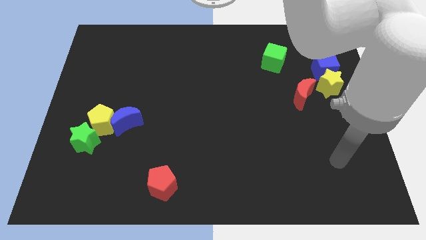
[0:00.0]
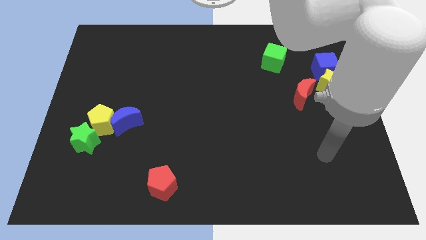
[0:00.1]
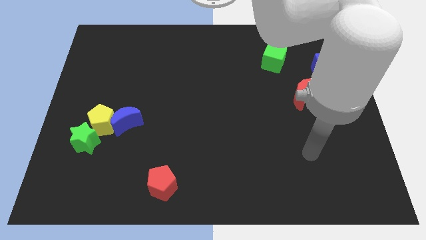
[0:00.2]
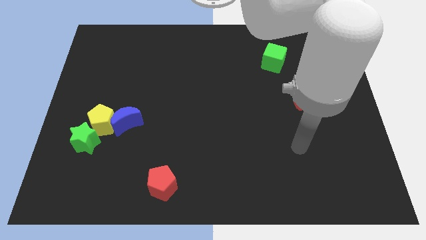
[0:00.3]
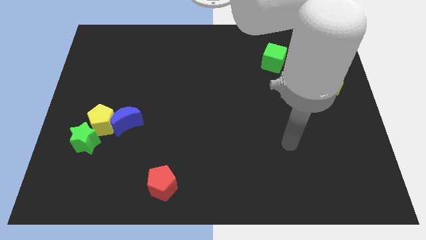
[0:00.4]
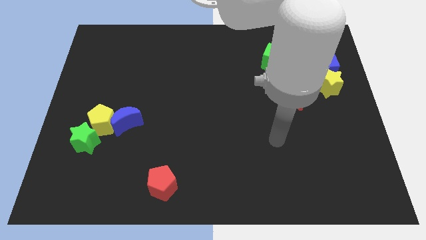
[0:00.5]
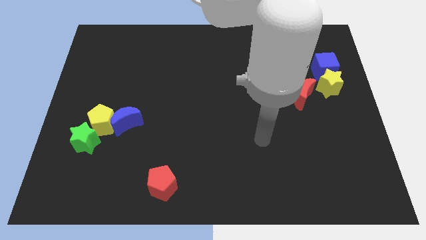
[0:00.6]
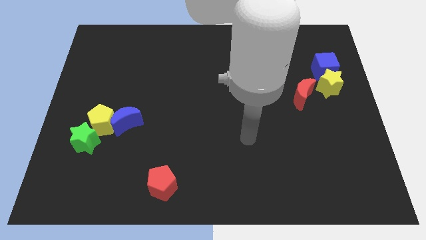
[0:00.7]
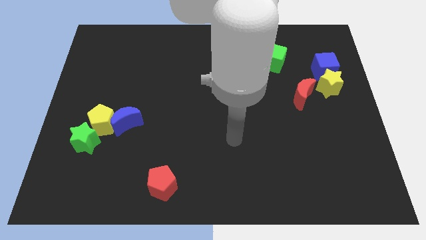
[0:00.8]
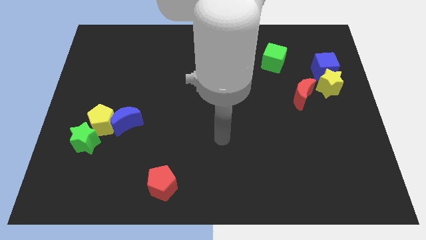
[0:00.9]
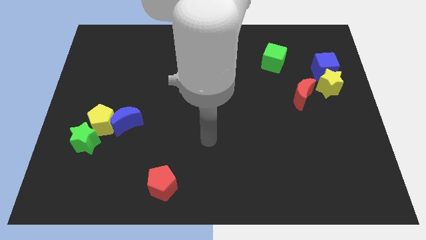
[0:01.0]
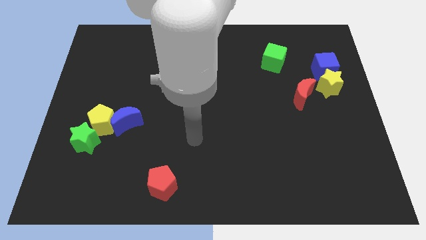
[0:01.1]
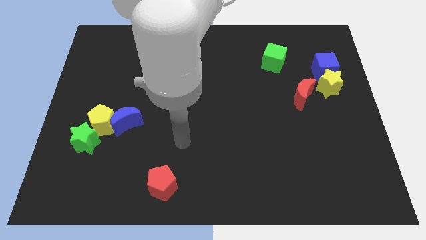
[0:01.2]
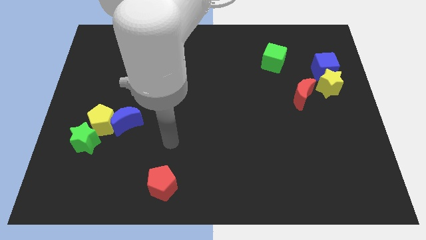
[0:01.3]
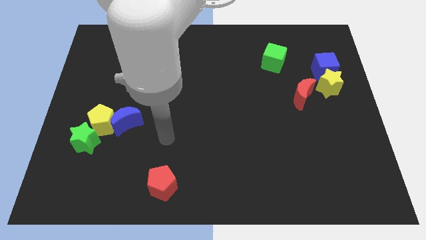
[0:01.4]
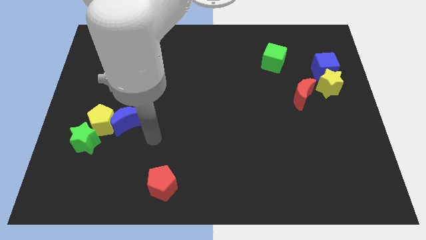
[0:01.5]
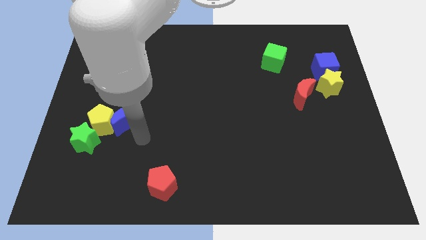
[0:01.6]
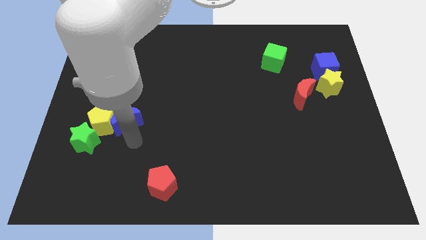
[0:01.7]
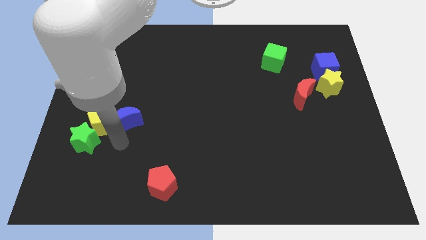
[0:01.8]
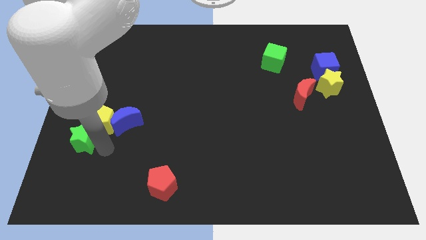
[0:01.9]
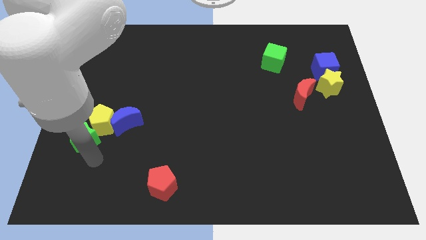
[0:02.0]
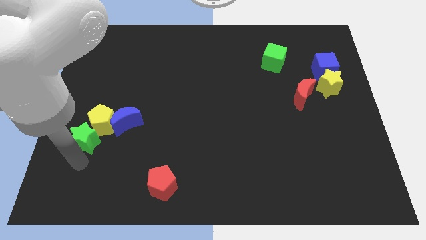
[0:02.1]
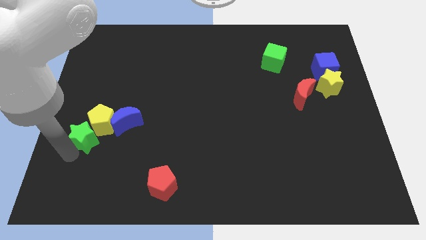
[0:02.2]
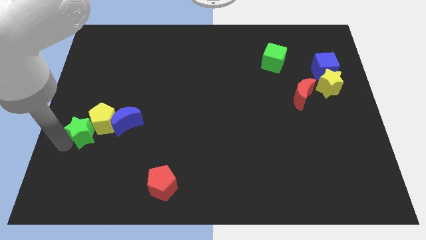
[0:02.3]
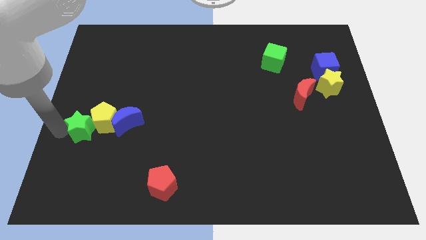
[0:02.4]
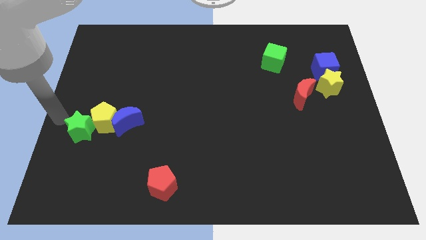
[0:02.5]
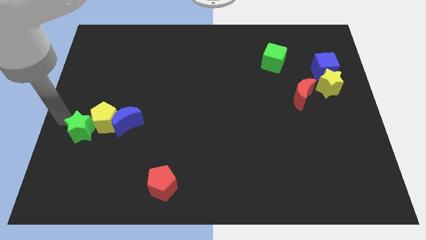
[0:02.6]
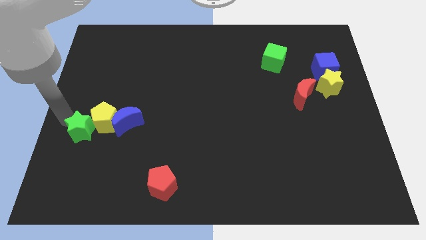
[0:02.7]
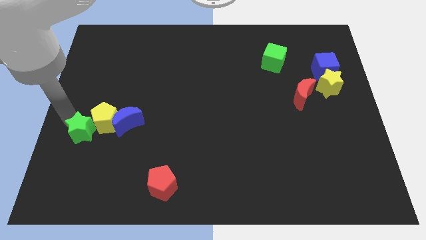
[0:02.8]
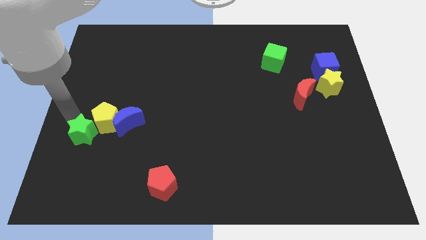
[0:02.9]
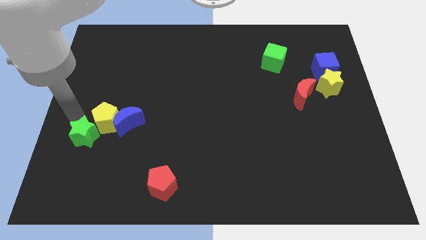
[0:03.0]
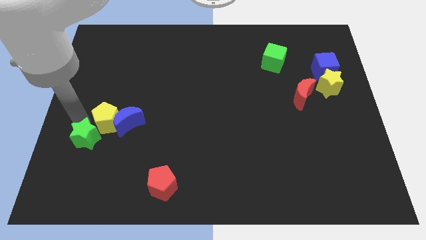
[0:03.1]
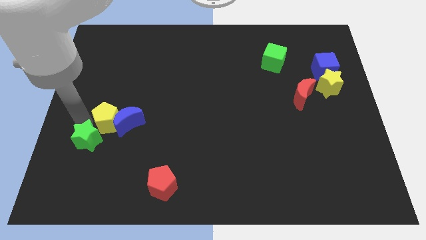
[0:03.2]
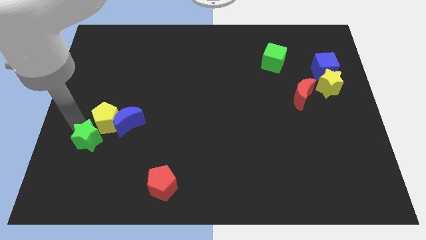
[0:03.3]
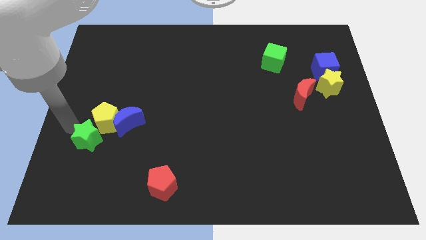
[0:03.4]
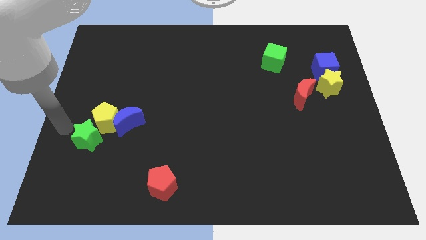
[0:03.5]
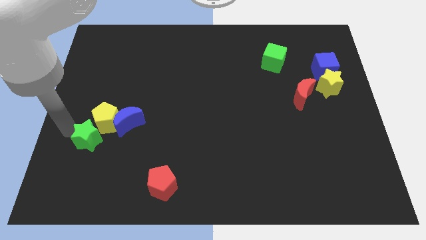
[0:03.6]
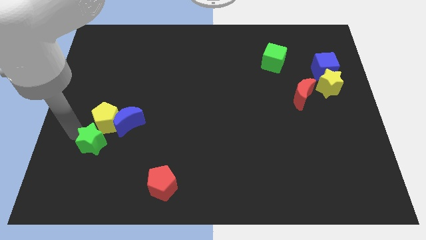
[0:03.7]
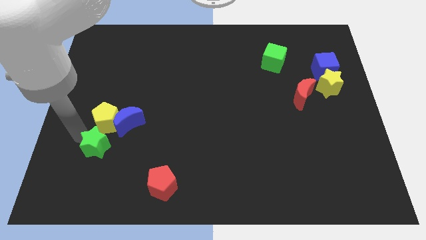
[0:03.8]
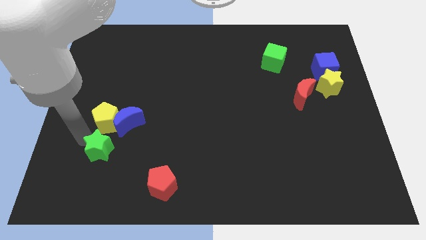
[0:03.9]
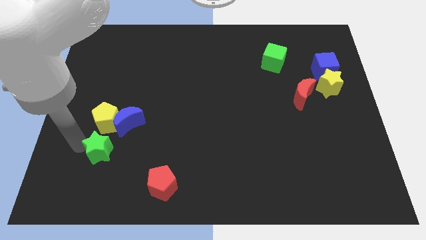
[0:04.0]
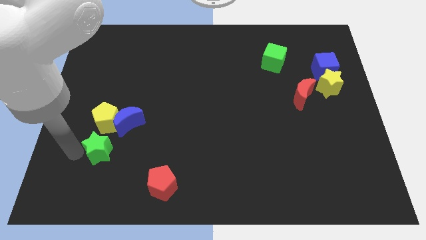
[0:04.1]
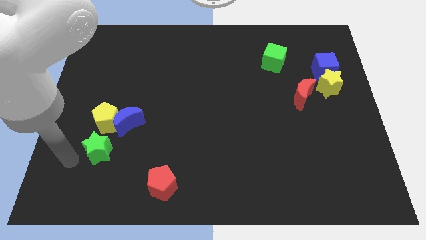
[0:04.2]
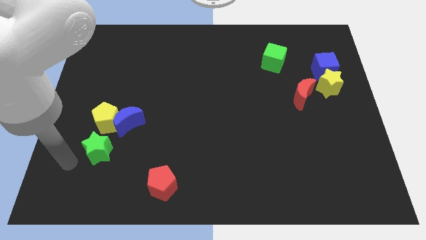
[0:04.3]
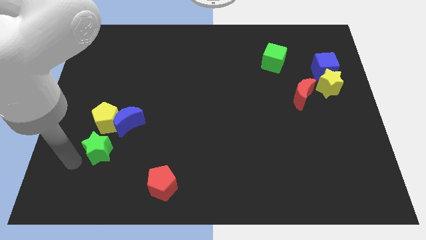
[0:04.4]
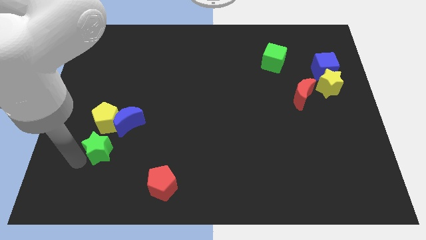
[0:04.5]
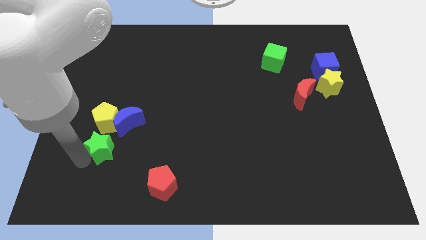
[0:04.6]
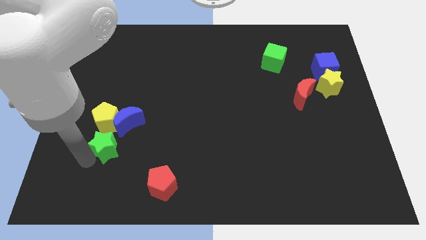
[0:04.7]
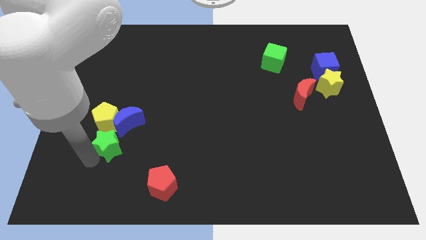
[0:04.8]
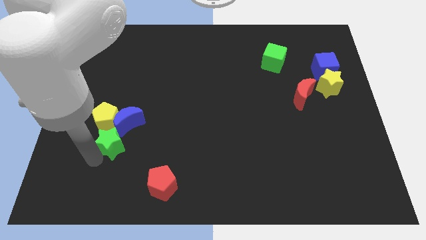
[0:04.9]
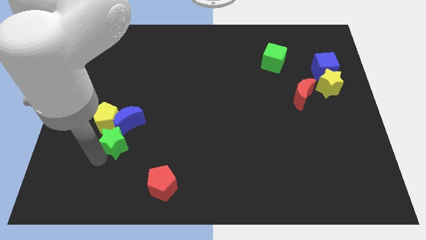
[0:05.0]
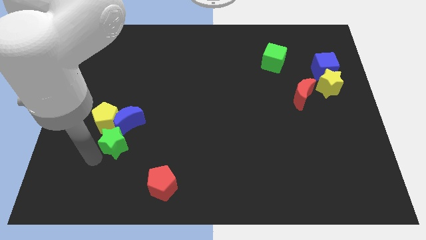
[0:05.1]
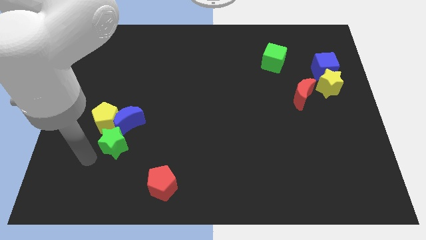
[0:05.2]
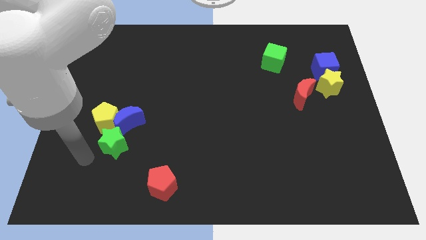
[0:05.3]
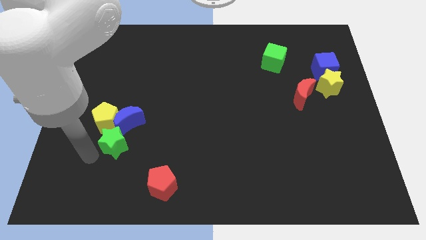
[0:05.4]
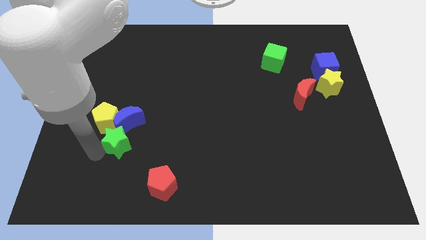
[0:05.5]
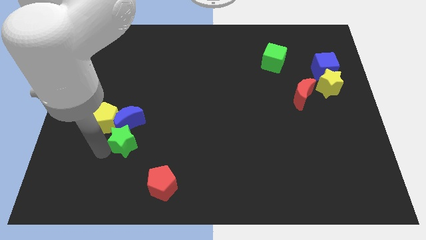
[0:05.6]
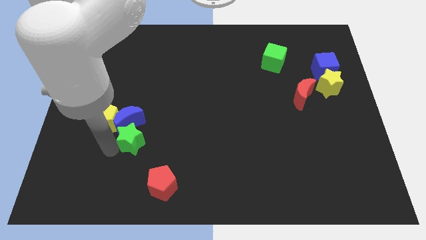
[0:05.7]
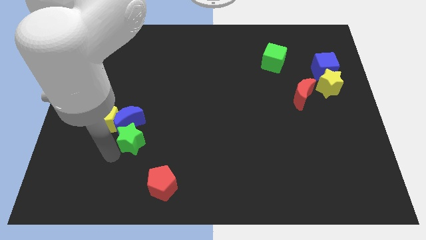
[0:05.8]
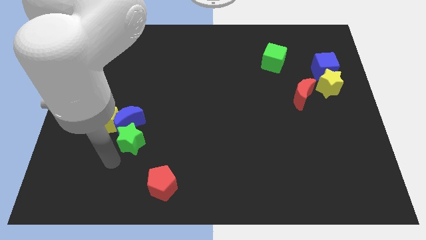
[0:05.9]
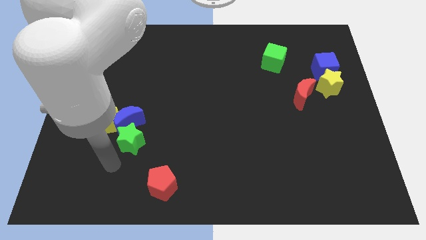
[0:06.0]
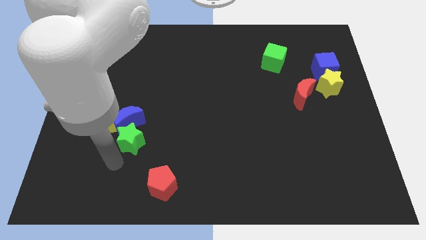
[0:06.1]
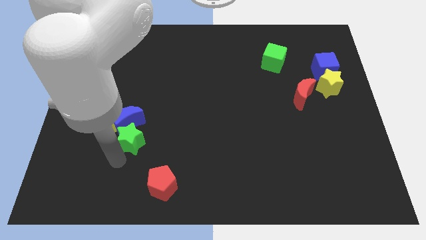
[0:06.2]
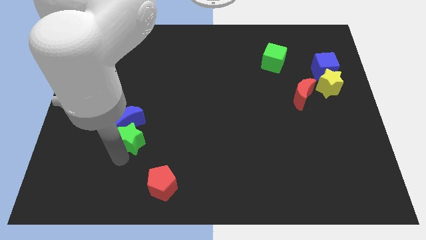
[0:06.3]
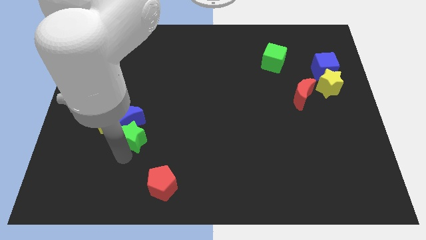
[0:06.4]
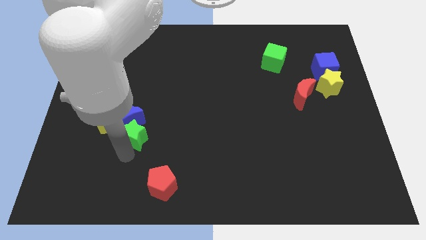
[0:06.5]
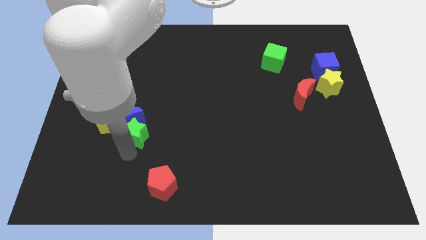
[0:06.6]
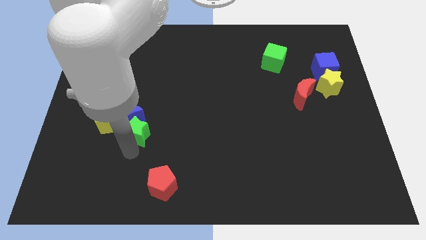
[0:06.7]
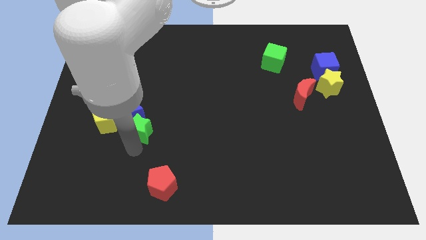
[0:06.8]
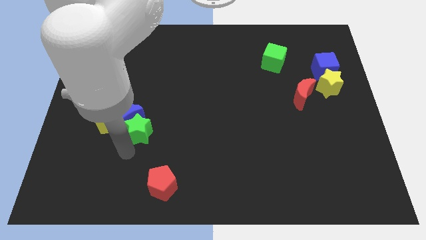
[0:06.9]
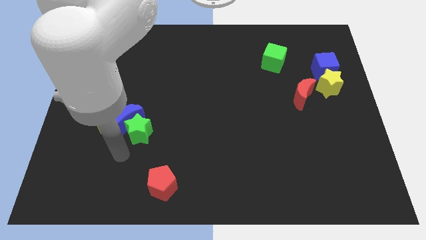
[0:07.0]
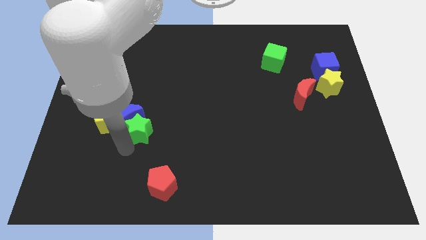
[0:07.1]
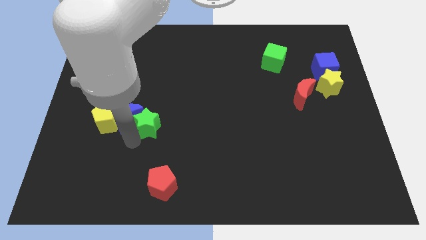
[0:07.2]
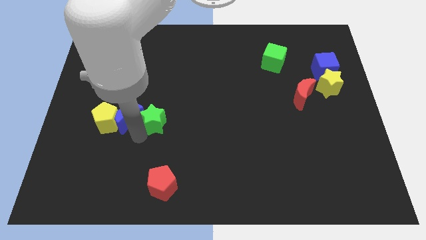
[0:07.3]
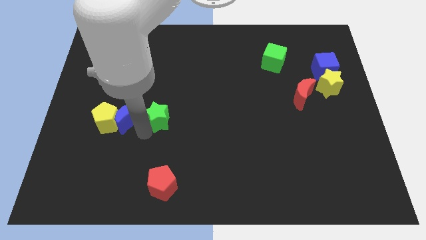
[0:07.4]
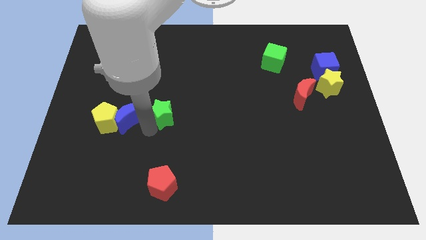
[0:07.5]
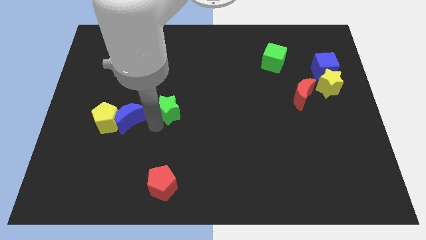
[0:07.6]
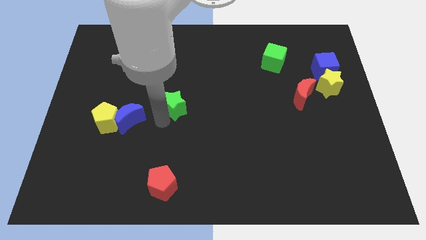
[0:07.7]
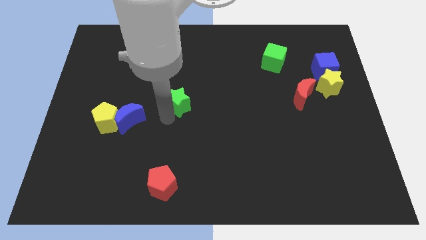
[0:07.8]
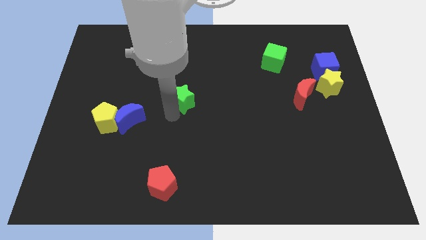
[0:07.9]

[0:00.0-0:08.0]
slide the green star upwards and to the right diagonally
